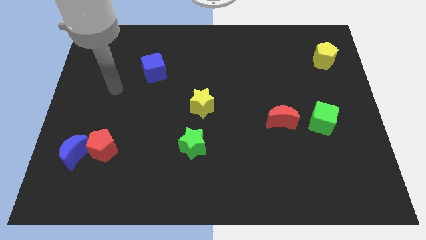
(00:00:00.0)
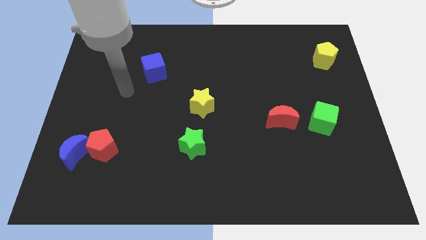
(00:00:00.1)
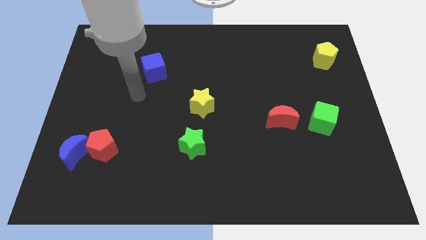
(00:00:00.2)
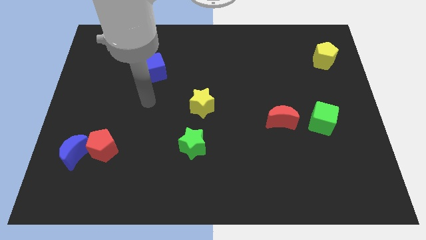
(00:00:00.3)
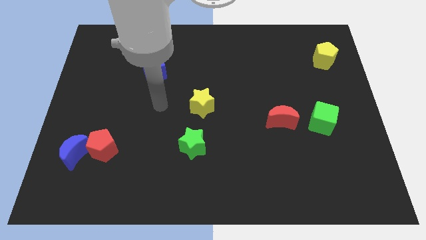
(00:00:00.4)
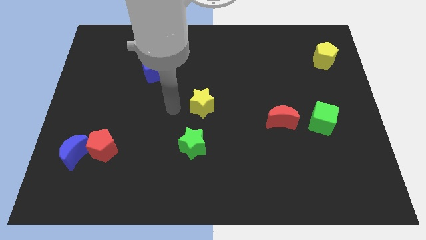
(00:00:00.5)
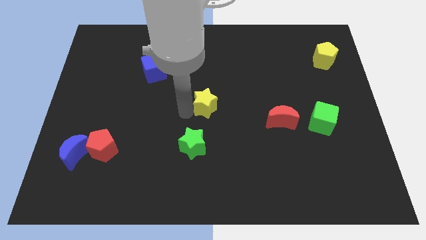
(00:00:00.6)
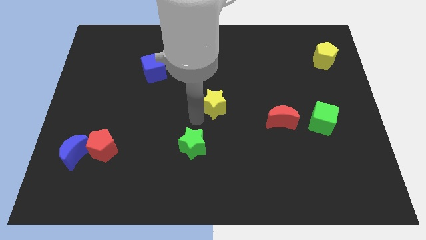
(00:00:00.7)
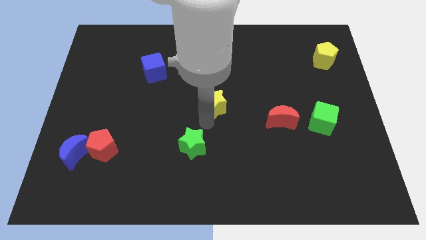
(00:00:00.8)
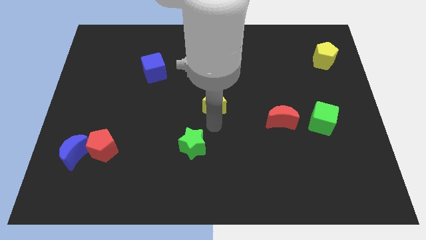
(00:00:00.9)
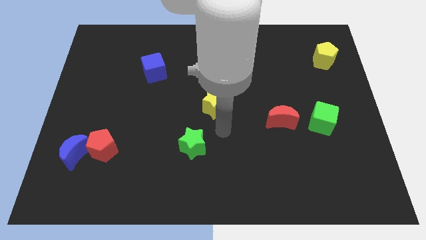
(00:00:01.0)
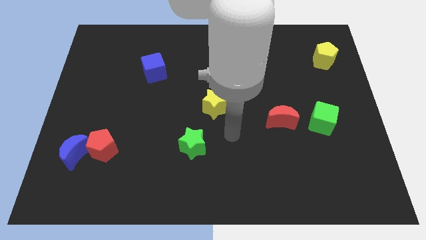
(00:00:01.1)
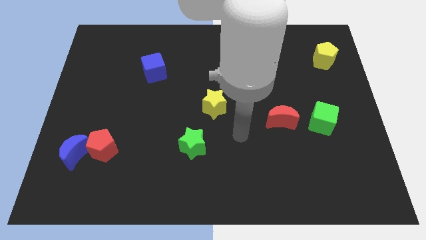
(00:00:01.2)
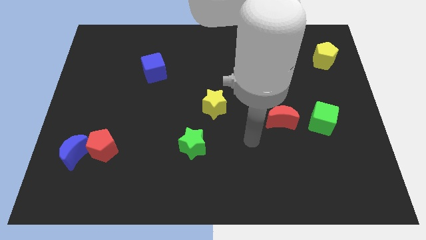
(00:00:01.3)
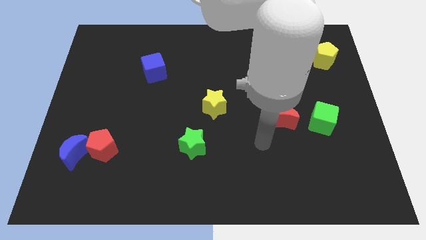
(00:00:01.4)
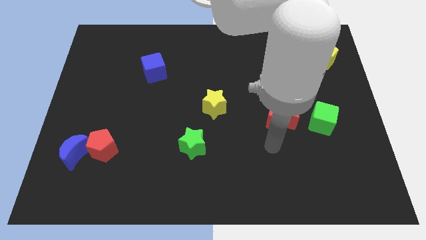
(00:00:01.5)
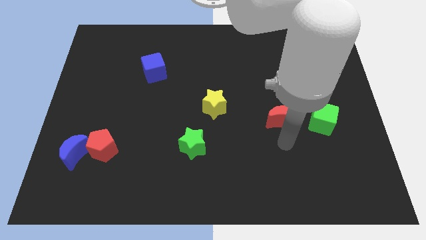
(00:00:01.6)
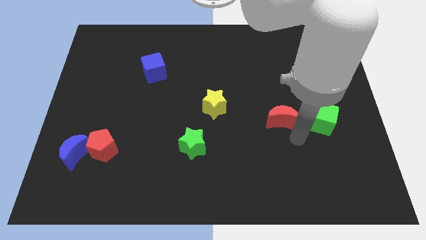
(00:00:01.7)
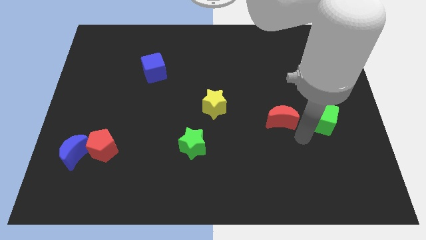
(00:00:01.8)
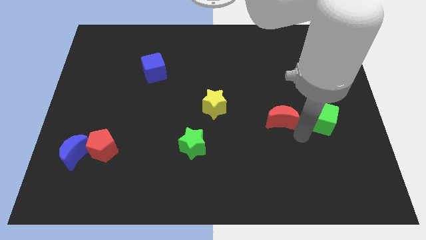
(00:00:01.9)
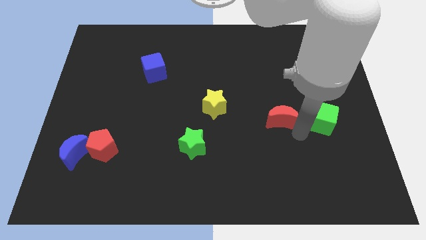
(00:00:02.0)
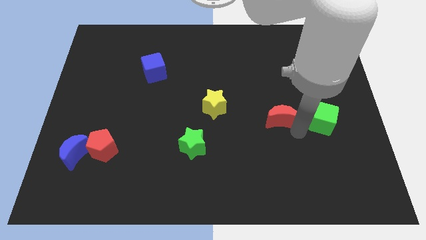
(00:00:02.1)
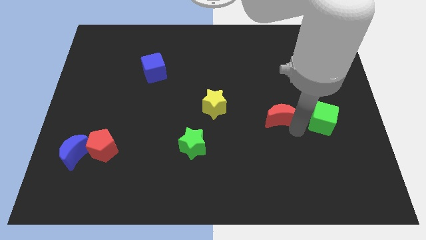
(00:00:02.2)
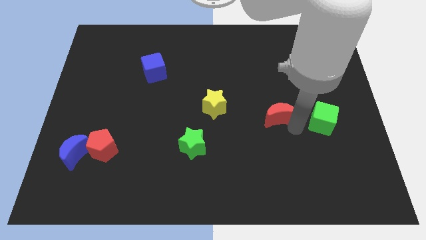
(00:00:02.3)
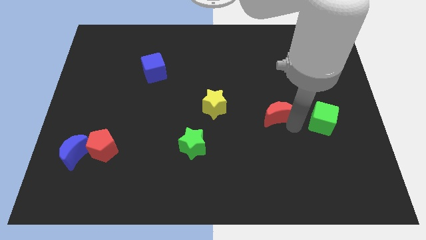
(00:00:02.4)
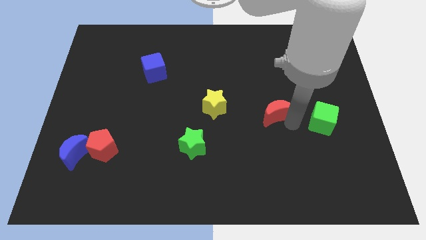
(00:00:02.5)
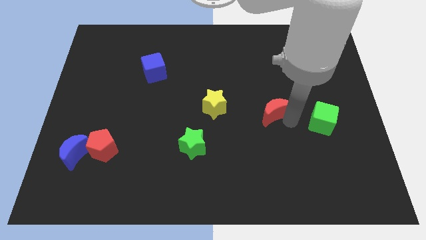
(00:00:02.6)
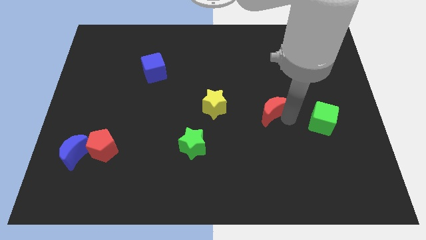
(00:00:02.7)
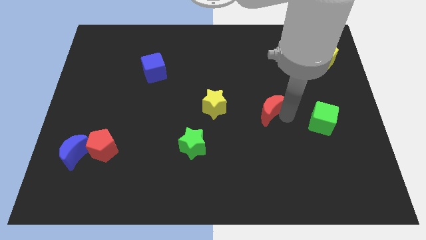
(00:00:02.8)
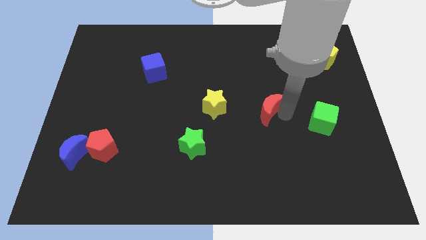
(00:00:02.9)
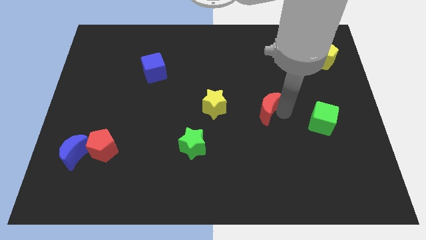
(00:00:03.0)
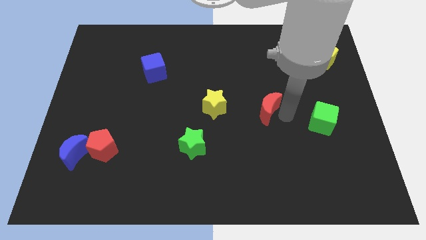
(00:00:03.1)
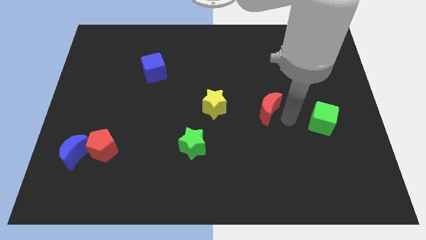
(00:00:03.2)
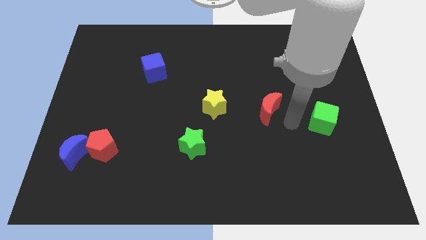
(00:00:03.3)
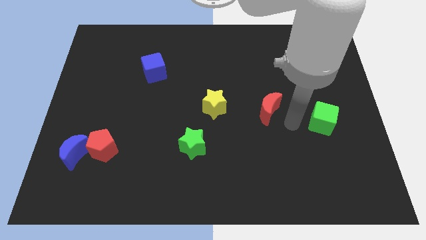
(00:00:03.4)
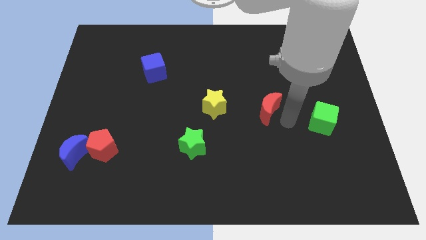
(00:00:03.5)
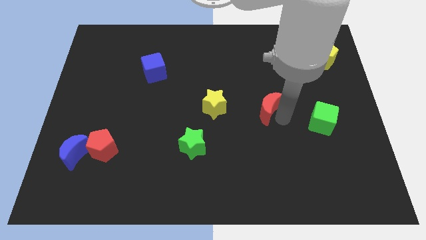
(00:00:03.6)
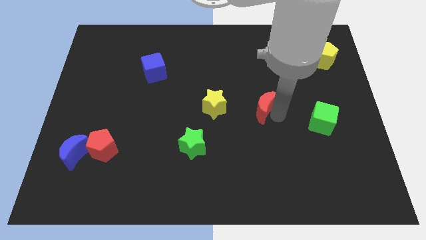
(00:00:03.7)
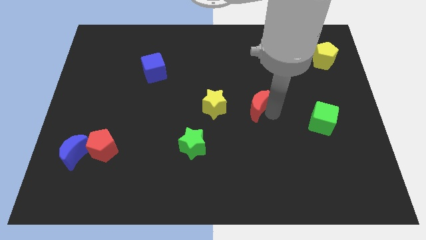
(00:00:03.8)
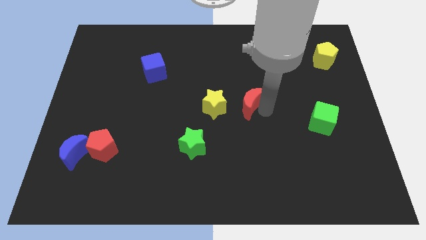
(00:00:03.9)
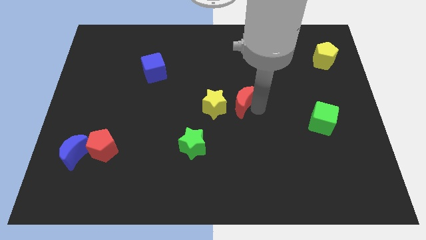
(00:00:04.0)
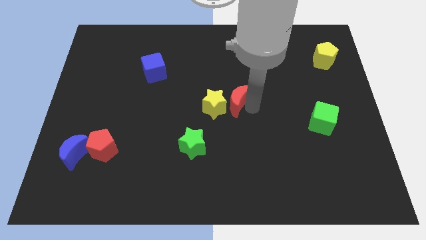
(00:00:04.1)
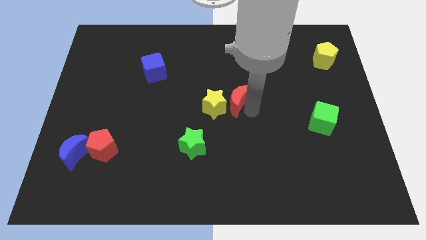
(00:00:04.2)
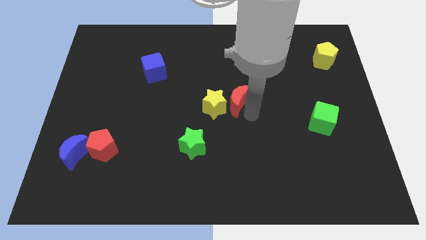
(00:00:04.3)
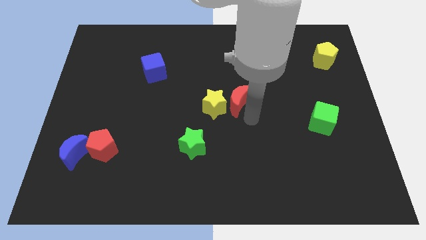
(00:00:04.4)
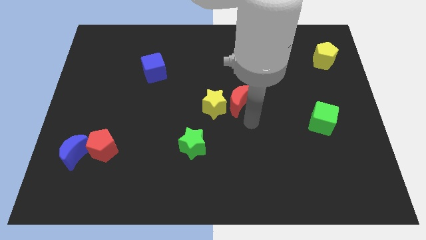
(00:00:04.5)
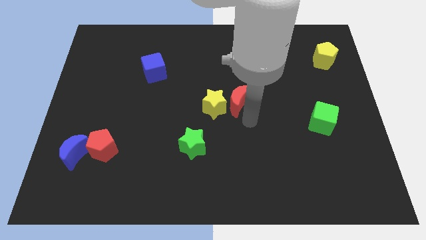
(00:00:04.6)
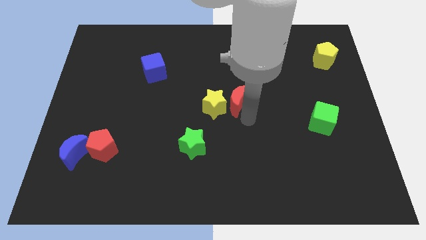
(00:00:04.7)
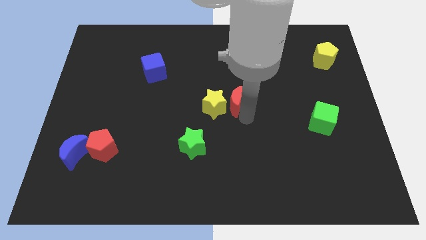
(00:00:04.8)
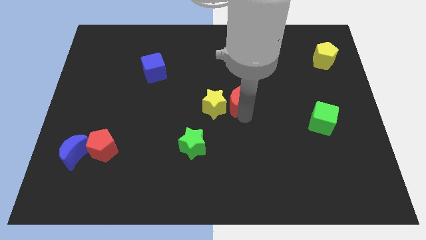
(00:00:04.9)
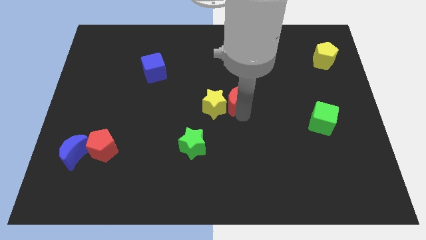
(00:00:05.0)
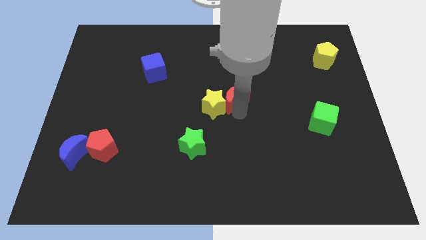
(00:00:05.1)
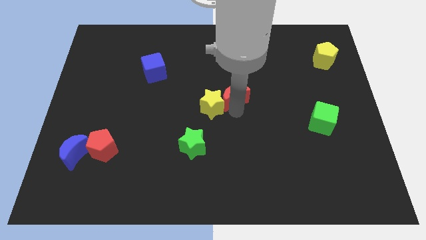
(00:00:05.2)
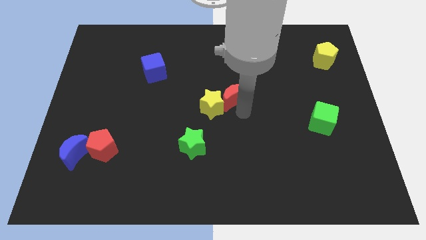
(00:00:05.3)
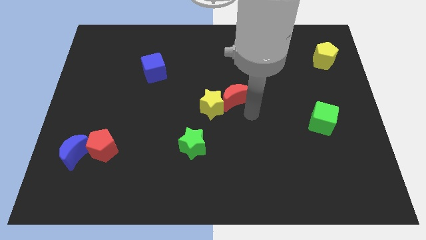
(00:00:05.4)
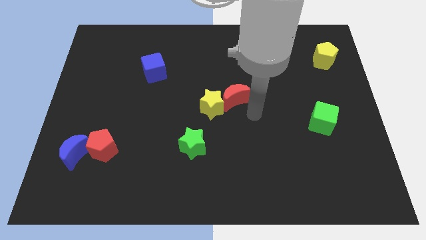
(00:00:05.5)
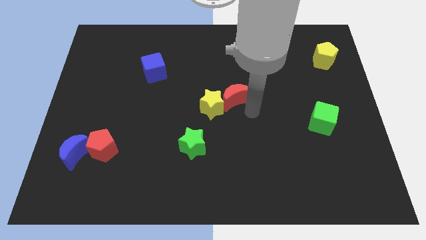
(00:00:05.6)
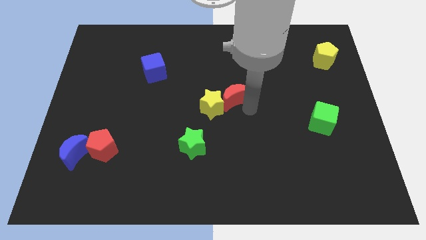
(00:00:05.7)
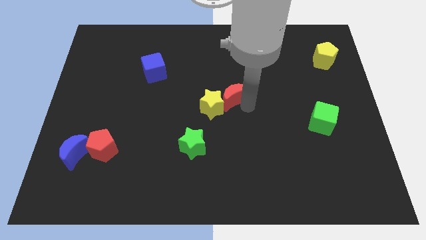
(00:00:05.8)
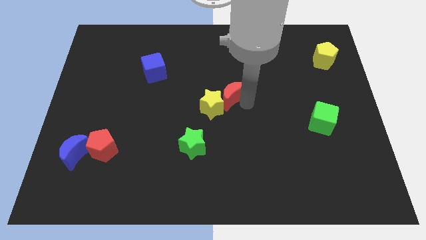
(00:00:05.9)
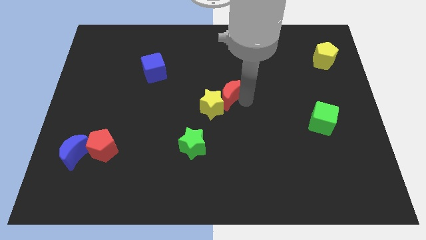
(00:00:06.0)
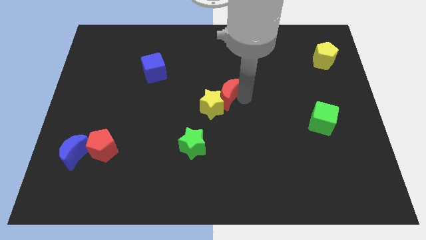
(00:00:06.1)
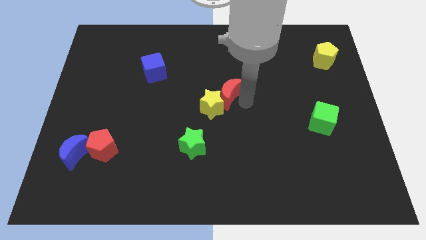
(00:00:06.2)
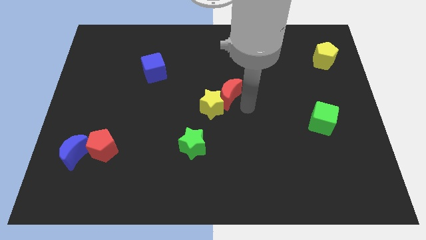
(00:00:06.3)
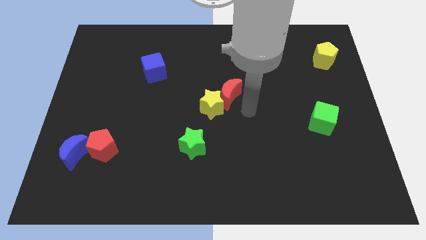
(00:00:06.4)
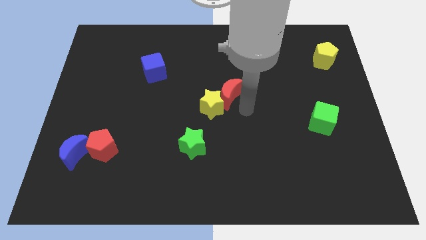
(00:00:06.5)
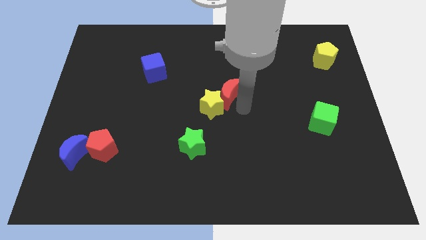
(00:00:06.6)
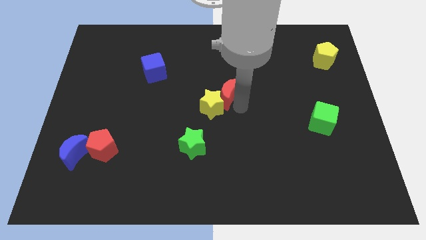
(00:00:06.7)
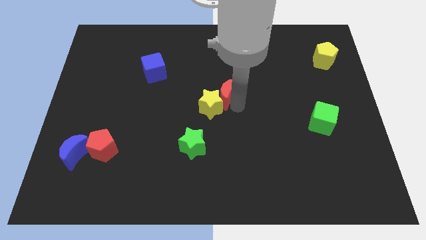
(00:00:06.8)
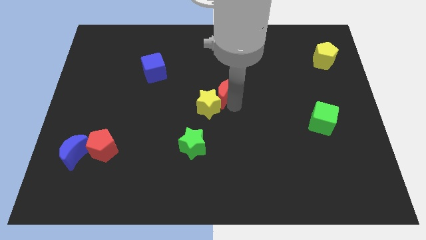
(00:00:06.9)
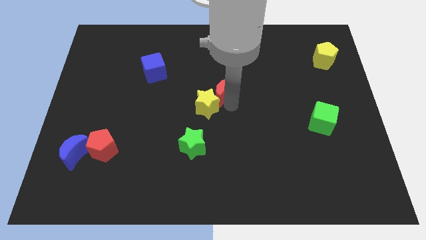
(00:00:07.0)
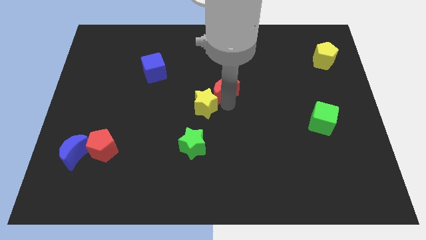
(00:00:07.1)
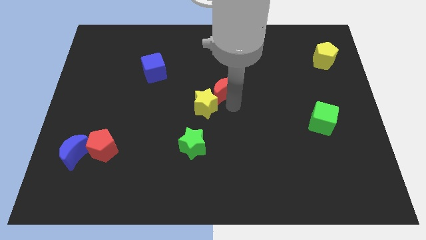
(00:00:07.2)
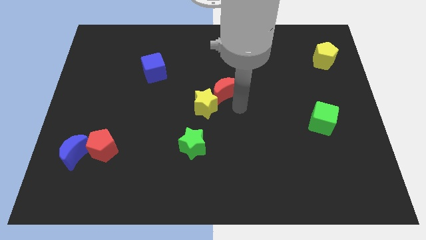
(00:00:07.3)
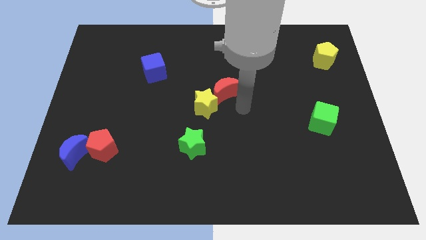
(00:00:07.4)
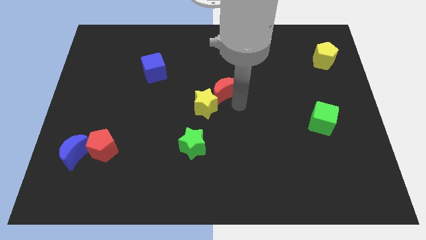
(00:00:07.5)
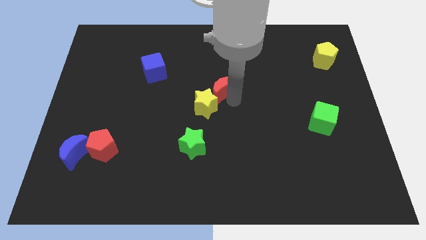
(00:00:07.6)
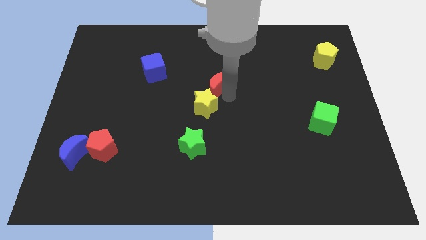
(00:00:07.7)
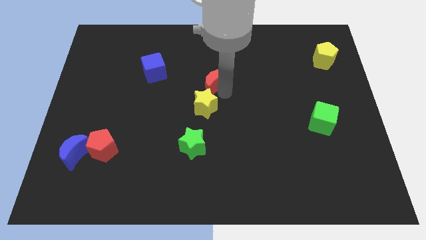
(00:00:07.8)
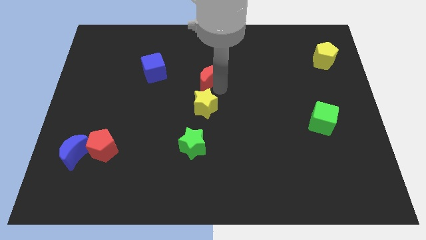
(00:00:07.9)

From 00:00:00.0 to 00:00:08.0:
move the red moon to the right side of the blue cube
